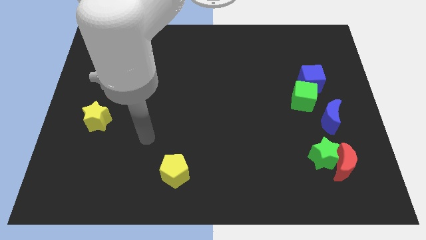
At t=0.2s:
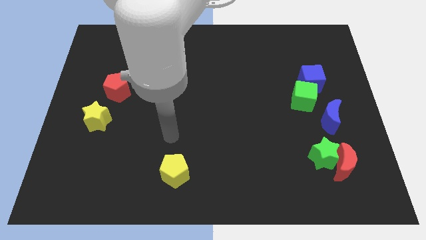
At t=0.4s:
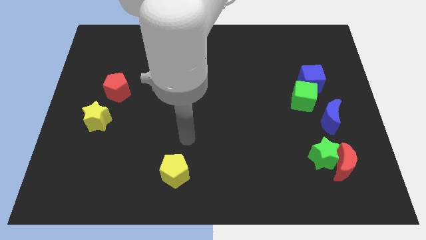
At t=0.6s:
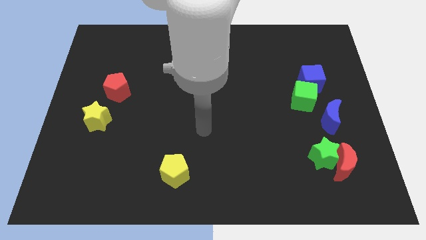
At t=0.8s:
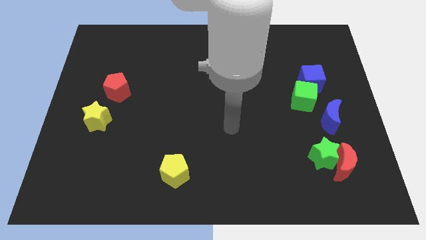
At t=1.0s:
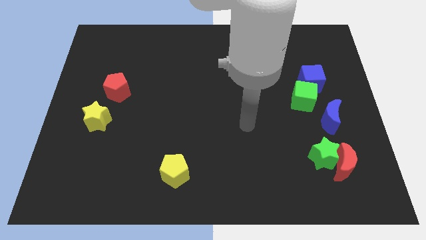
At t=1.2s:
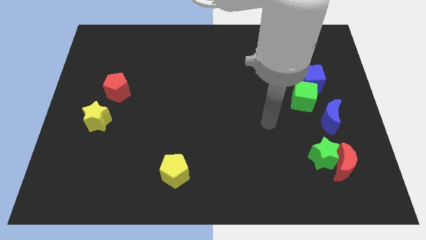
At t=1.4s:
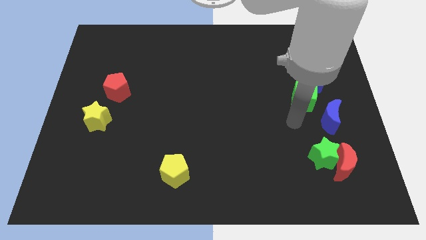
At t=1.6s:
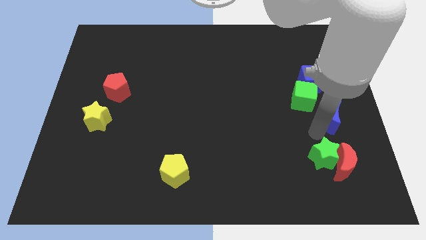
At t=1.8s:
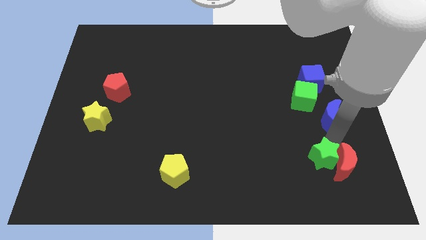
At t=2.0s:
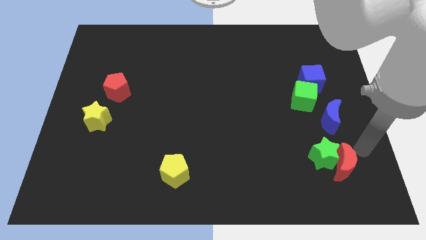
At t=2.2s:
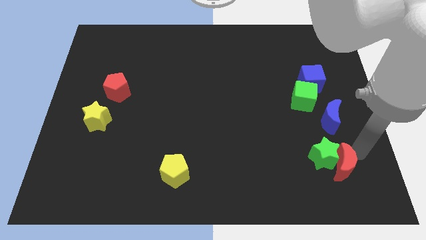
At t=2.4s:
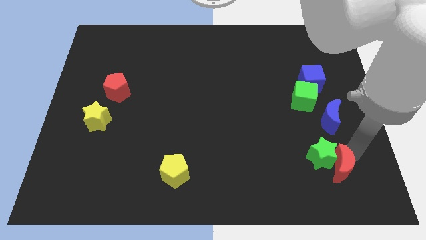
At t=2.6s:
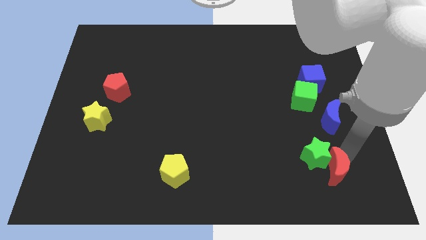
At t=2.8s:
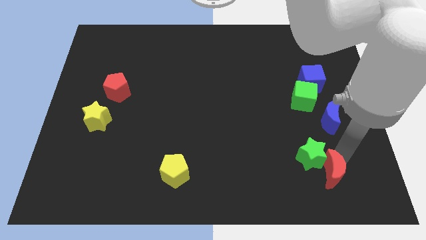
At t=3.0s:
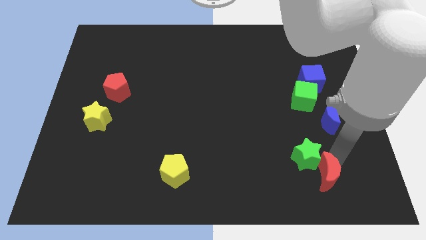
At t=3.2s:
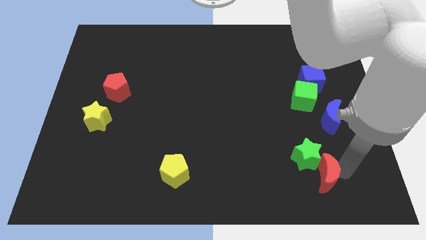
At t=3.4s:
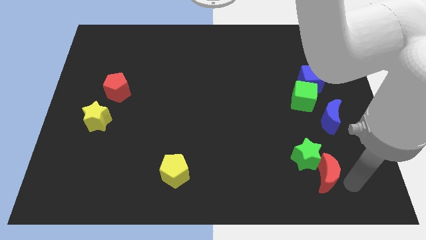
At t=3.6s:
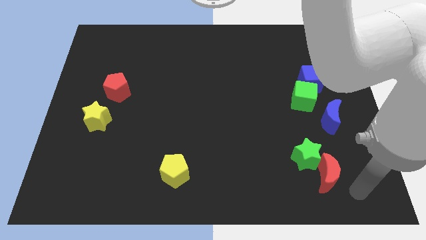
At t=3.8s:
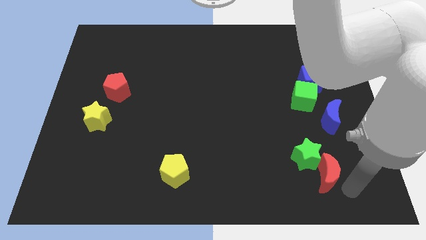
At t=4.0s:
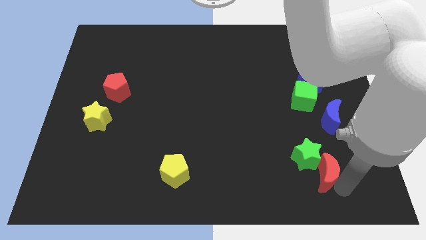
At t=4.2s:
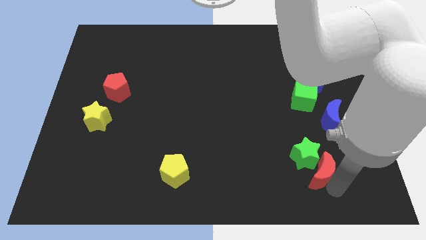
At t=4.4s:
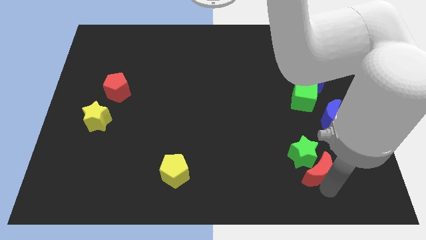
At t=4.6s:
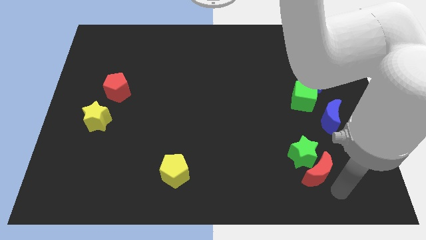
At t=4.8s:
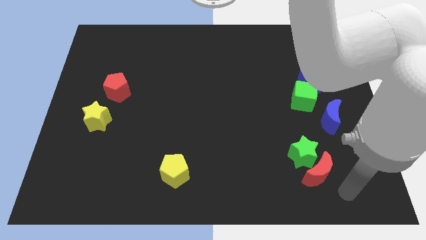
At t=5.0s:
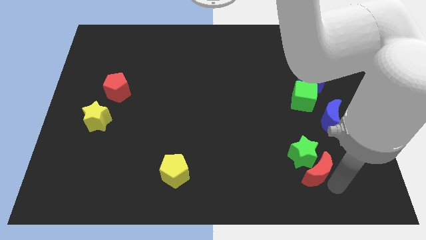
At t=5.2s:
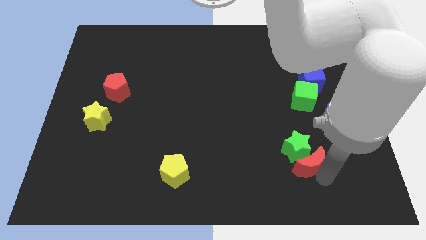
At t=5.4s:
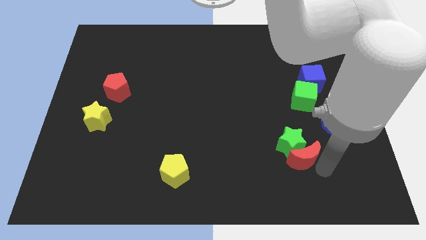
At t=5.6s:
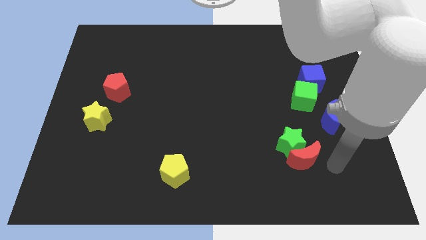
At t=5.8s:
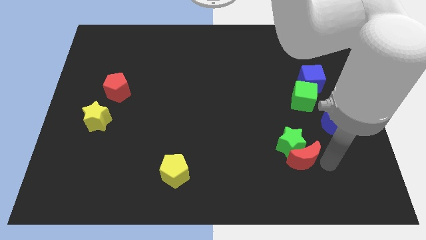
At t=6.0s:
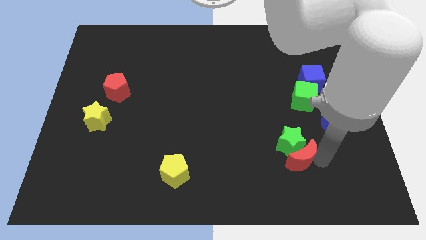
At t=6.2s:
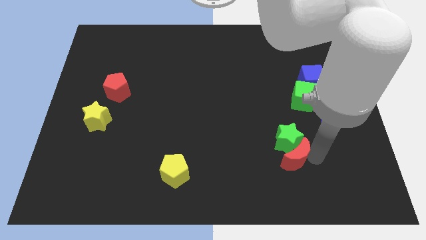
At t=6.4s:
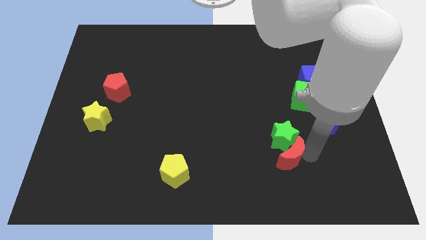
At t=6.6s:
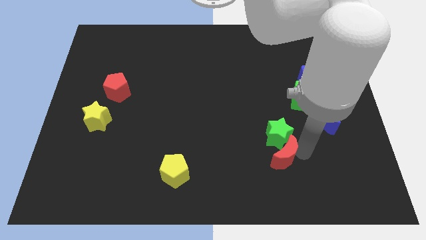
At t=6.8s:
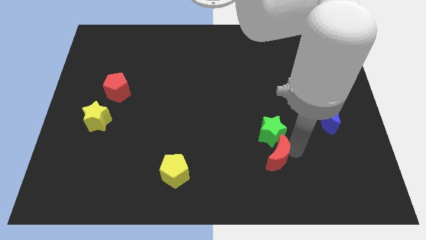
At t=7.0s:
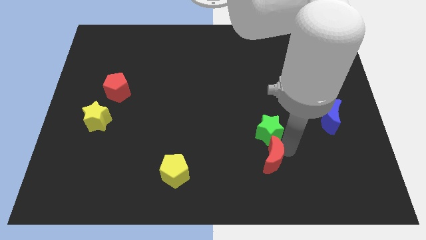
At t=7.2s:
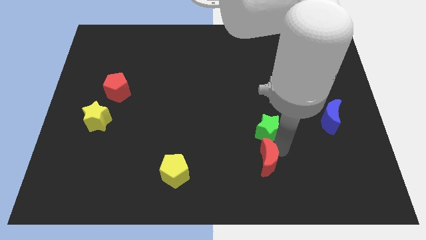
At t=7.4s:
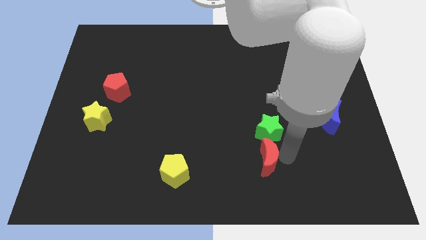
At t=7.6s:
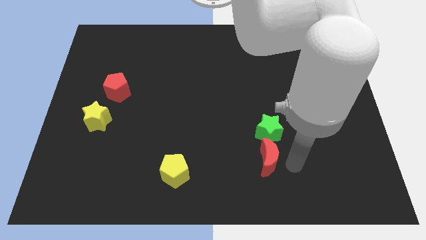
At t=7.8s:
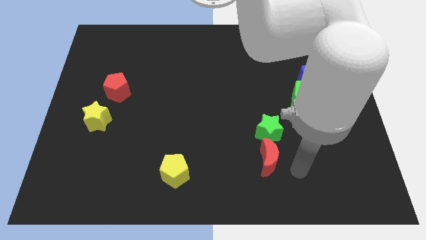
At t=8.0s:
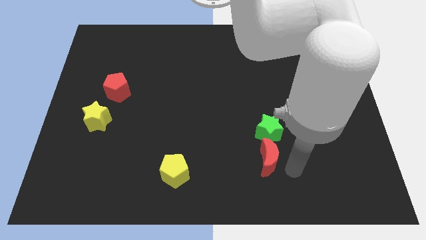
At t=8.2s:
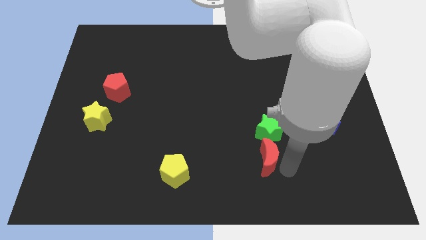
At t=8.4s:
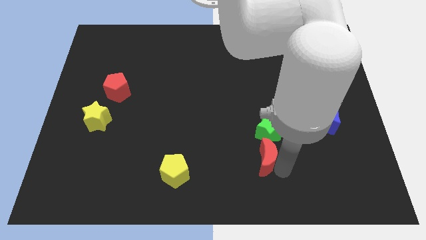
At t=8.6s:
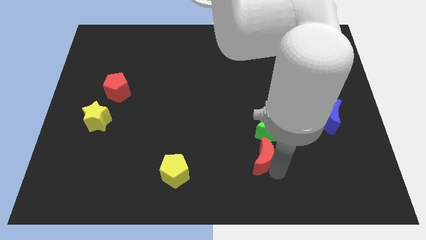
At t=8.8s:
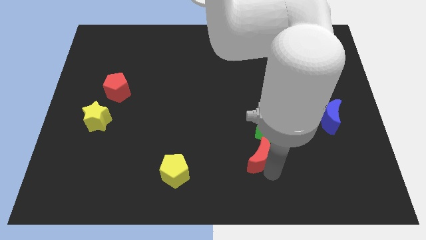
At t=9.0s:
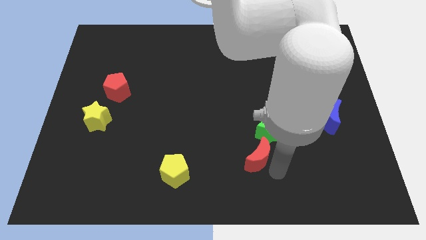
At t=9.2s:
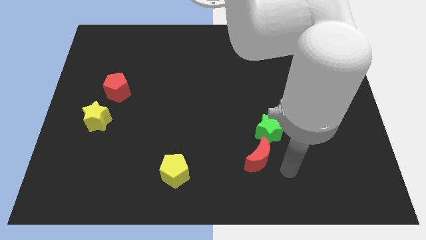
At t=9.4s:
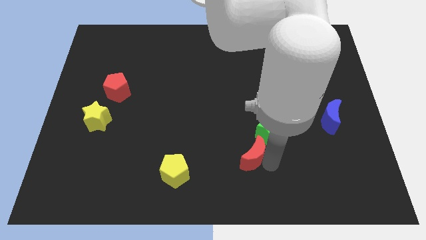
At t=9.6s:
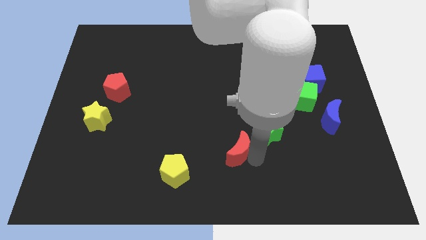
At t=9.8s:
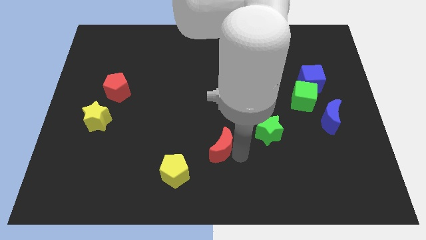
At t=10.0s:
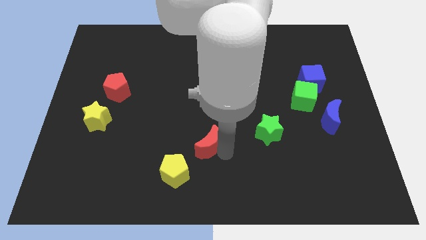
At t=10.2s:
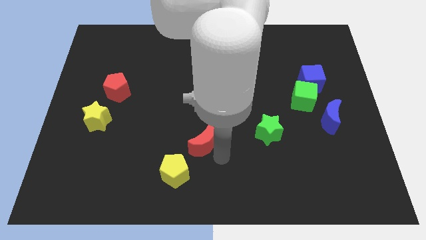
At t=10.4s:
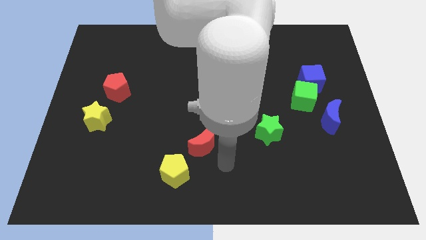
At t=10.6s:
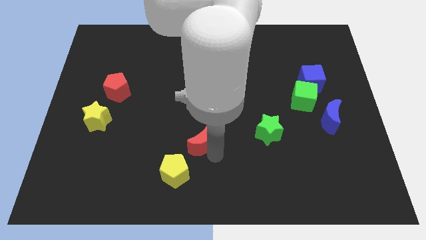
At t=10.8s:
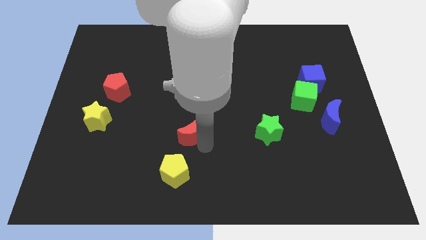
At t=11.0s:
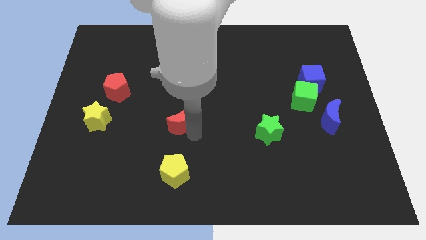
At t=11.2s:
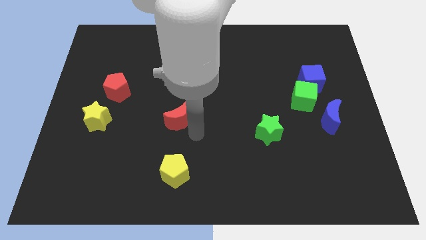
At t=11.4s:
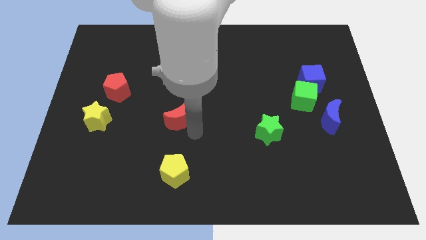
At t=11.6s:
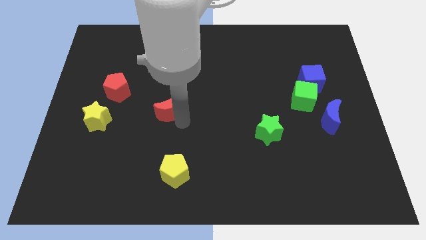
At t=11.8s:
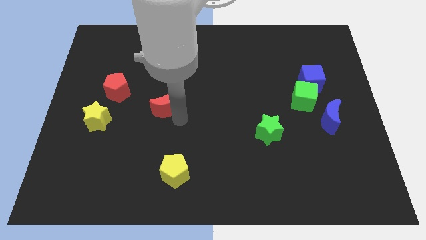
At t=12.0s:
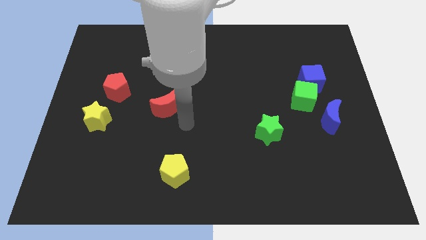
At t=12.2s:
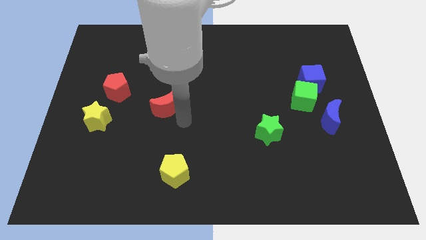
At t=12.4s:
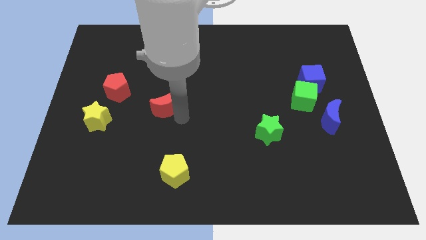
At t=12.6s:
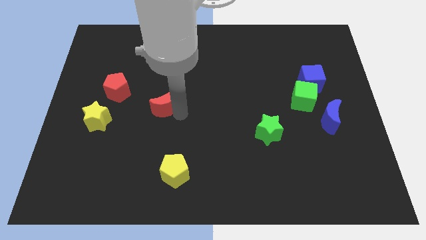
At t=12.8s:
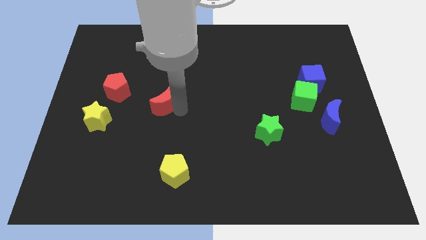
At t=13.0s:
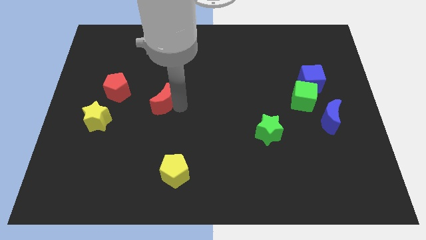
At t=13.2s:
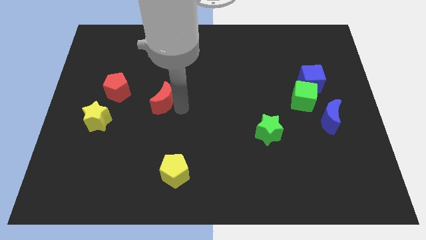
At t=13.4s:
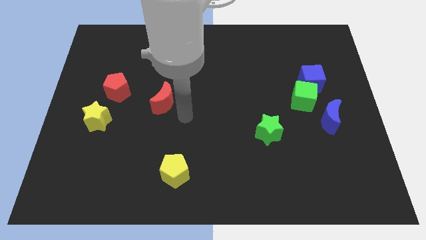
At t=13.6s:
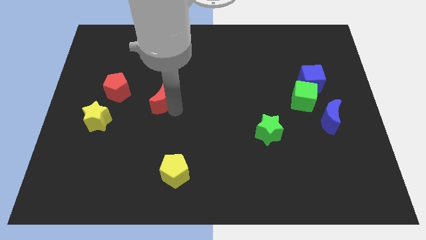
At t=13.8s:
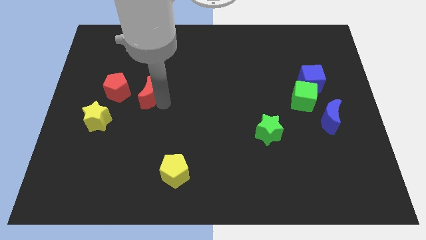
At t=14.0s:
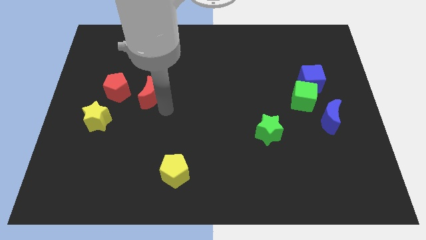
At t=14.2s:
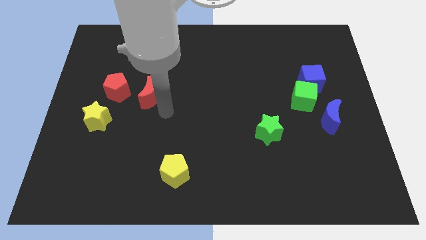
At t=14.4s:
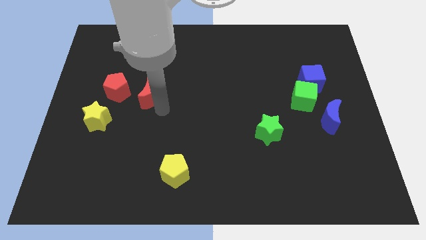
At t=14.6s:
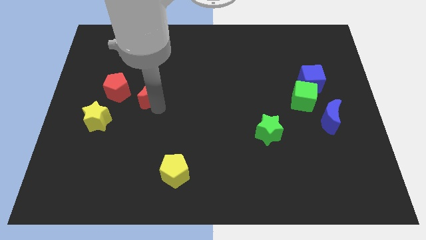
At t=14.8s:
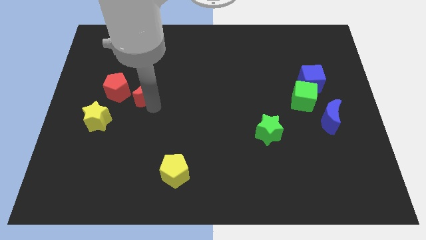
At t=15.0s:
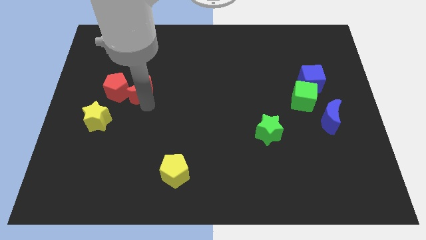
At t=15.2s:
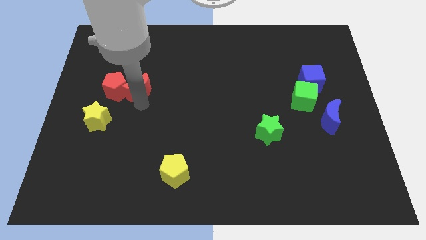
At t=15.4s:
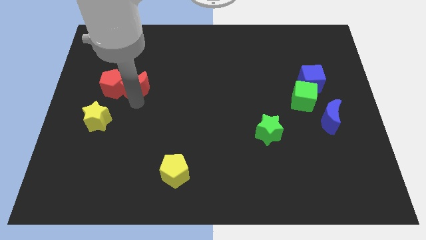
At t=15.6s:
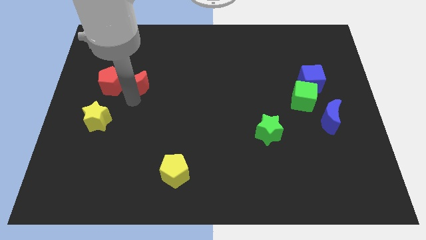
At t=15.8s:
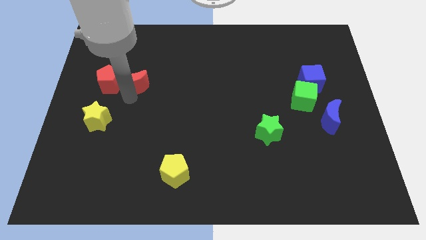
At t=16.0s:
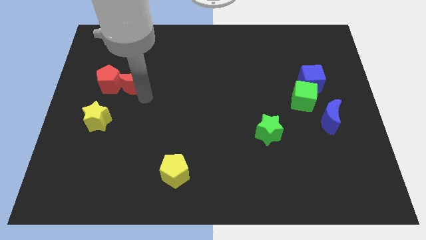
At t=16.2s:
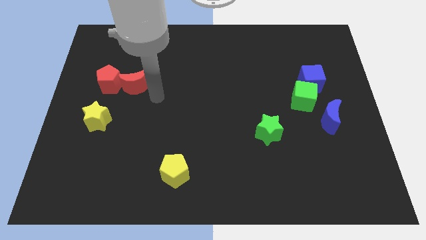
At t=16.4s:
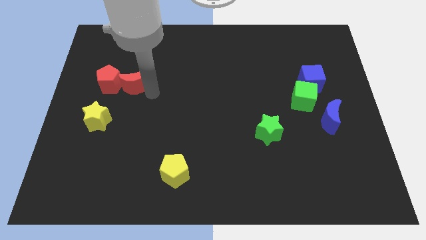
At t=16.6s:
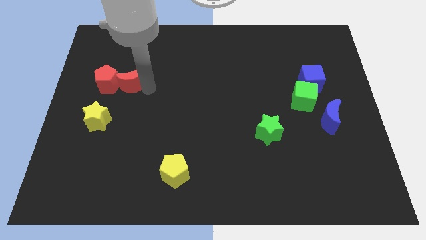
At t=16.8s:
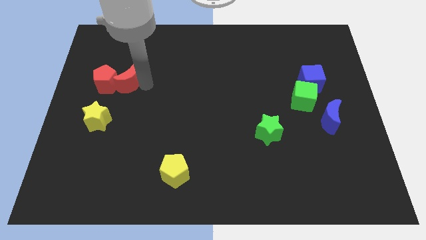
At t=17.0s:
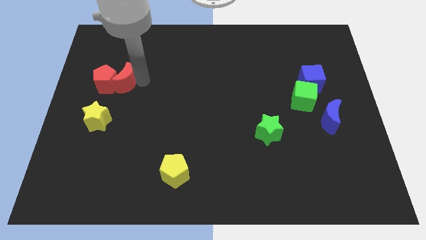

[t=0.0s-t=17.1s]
put the red moon to the top of the yellow star
